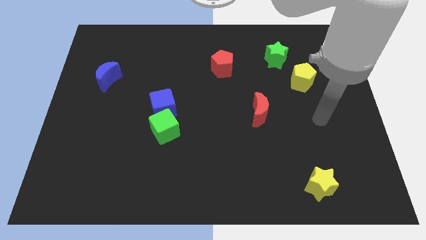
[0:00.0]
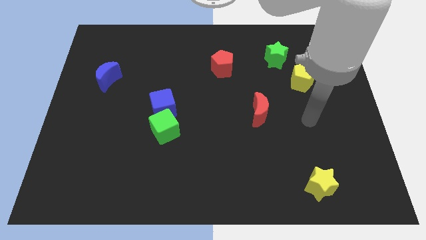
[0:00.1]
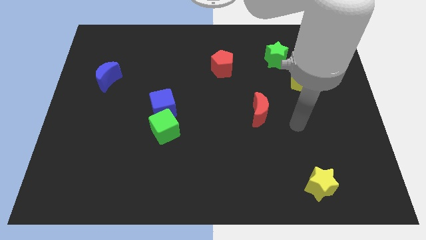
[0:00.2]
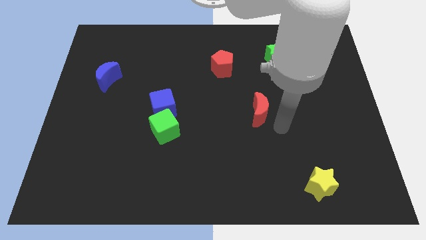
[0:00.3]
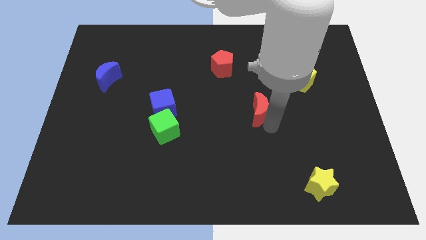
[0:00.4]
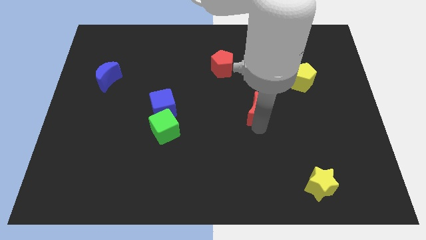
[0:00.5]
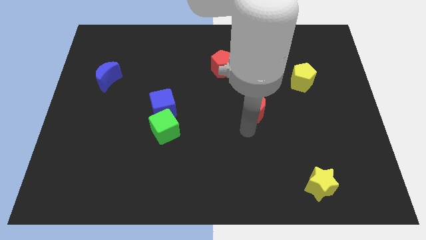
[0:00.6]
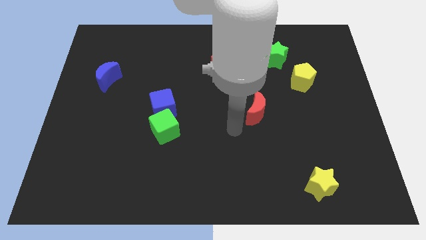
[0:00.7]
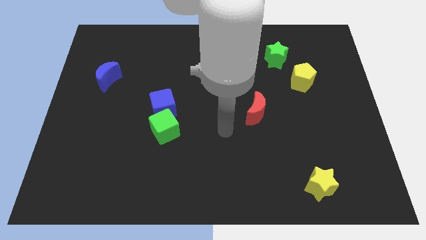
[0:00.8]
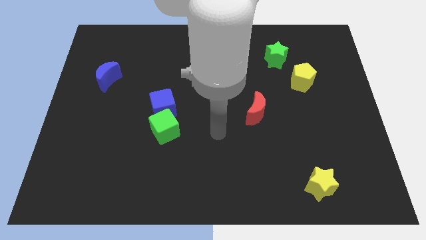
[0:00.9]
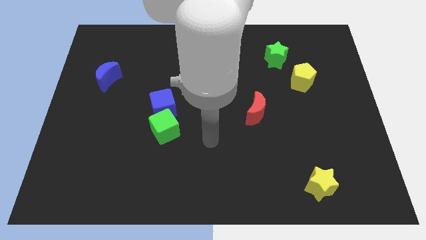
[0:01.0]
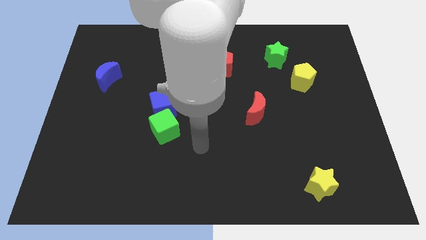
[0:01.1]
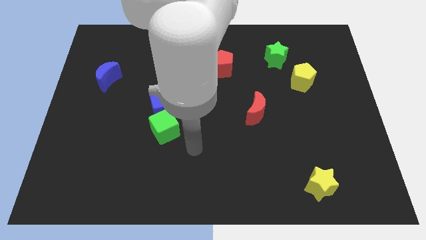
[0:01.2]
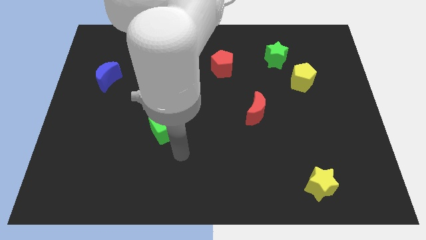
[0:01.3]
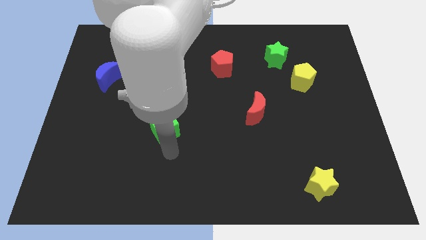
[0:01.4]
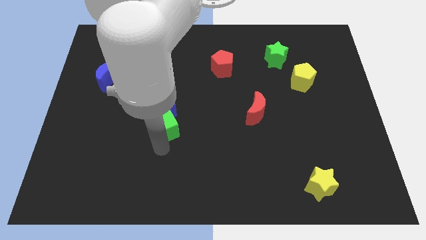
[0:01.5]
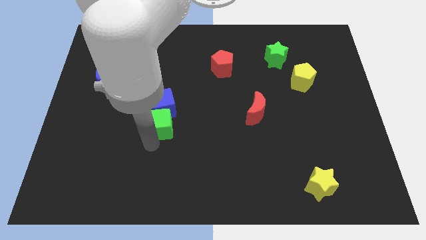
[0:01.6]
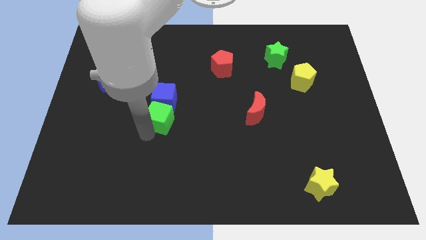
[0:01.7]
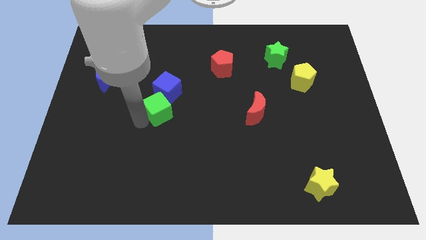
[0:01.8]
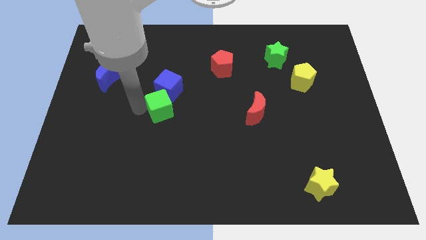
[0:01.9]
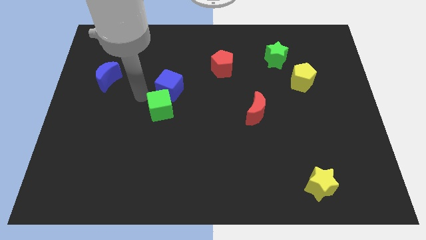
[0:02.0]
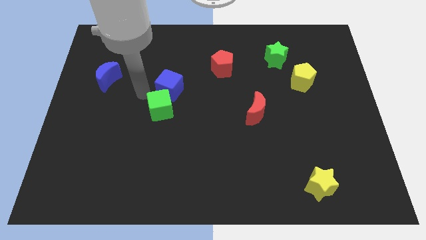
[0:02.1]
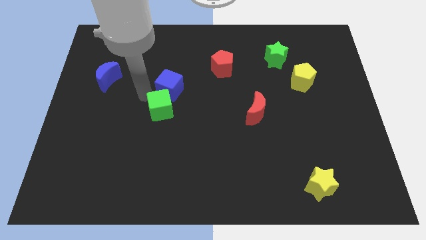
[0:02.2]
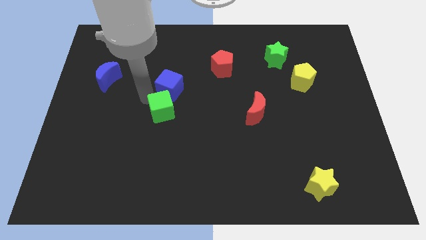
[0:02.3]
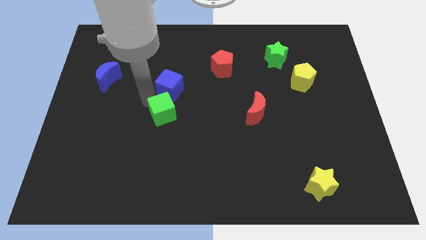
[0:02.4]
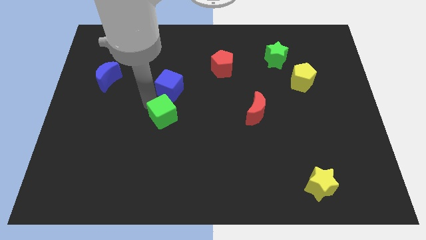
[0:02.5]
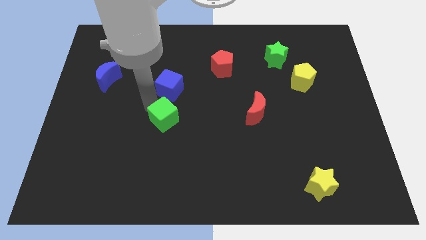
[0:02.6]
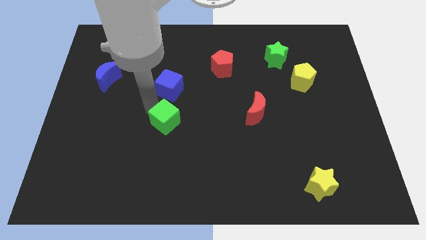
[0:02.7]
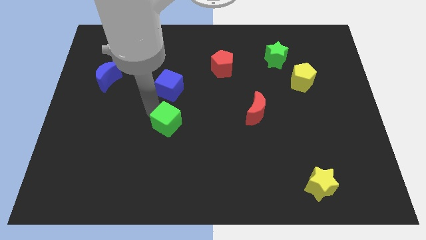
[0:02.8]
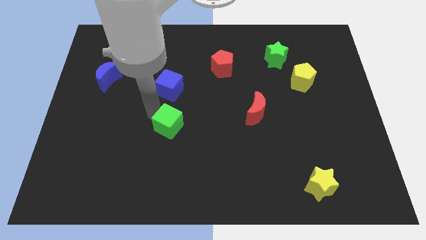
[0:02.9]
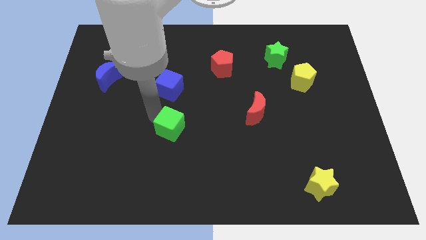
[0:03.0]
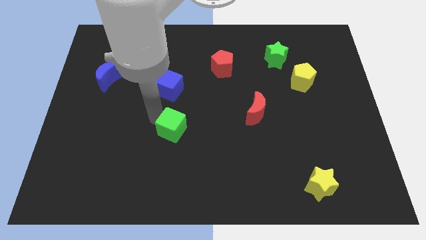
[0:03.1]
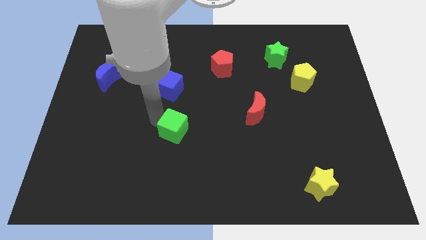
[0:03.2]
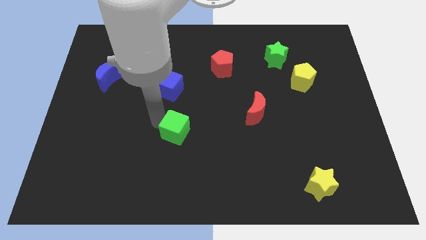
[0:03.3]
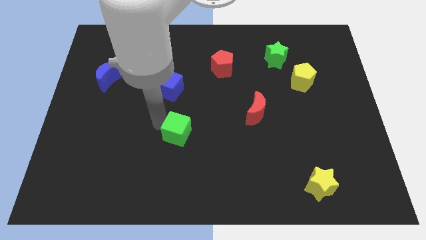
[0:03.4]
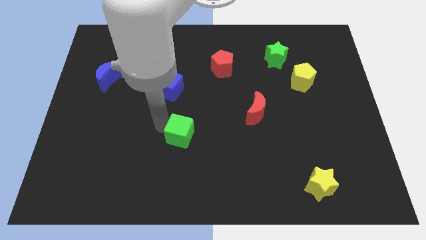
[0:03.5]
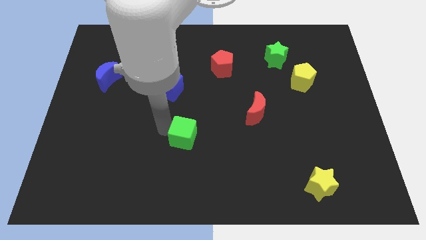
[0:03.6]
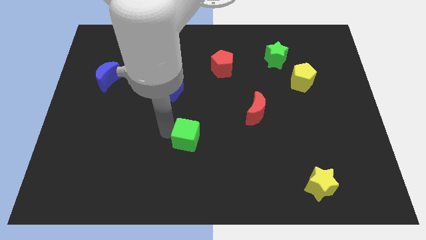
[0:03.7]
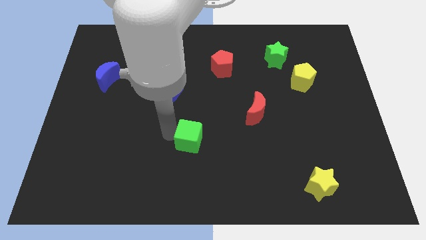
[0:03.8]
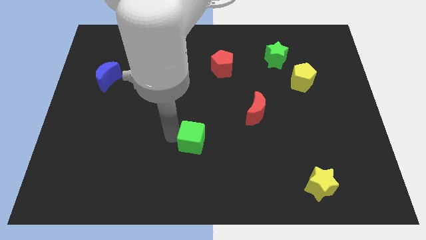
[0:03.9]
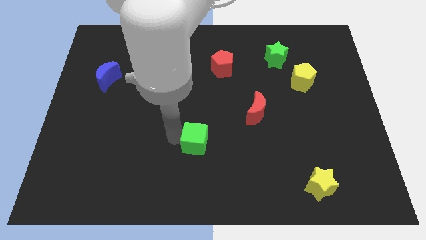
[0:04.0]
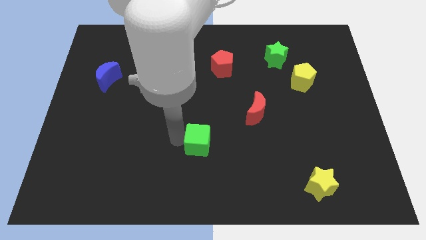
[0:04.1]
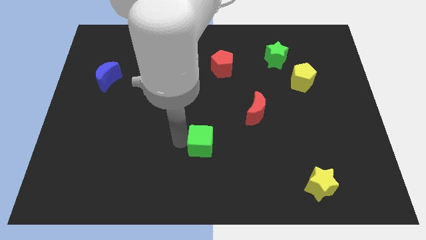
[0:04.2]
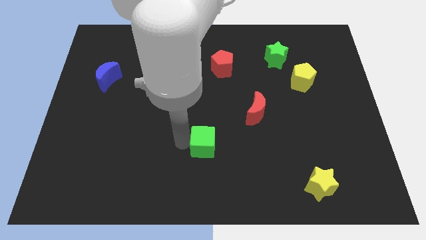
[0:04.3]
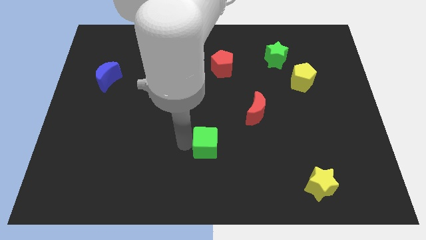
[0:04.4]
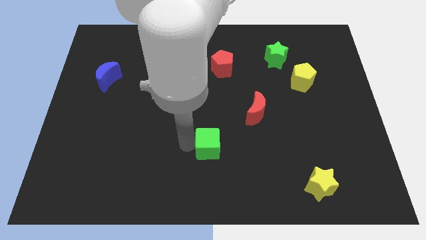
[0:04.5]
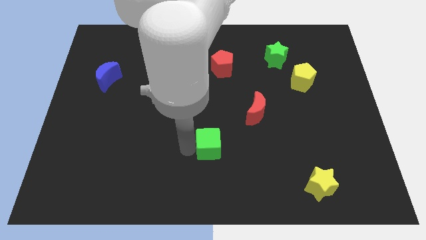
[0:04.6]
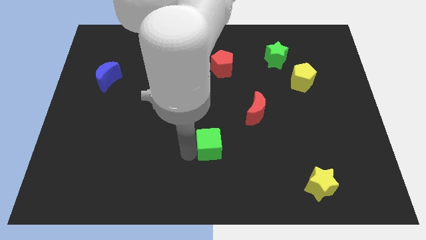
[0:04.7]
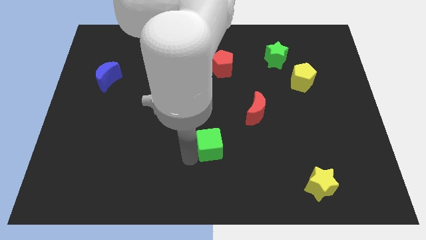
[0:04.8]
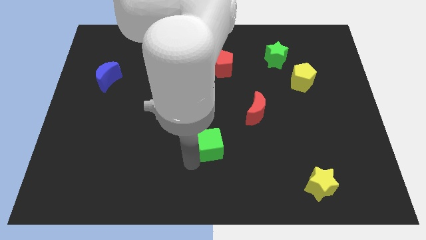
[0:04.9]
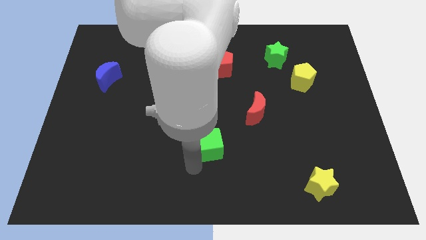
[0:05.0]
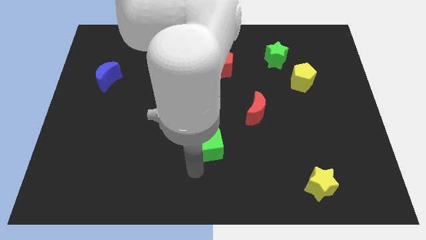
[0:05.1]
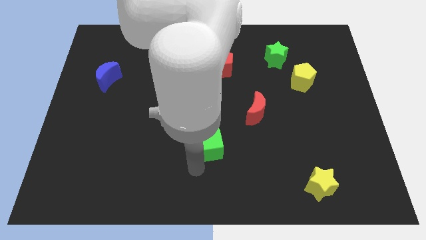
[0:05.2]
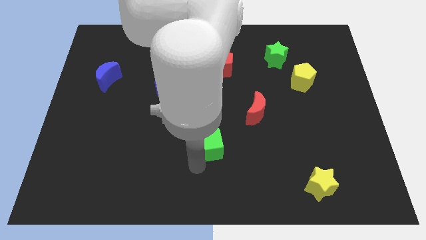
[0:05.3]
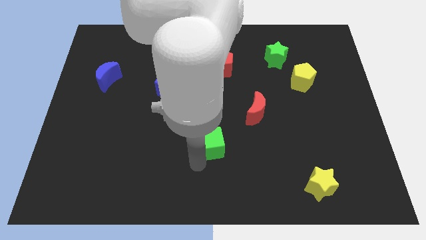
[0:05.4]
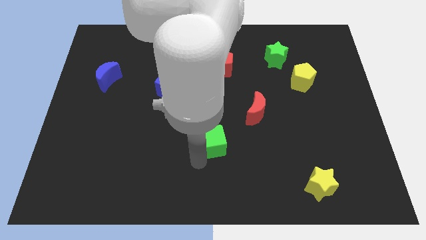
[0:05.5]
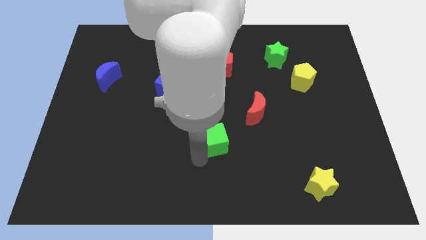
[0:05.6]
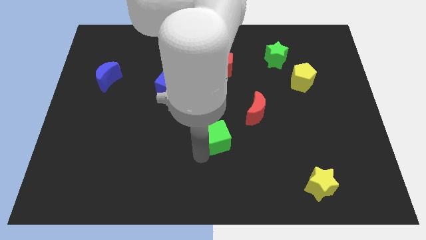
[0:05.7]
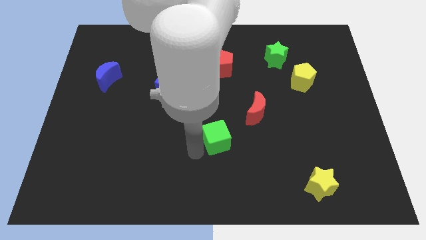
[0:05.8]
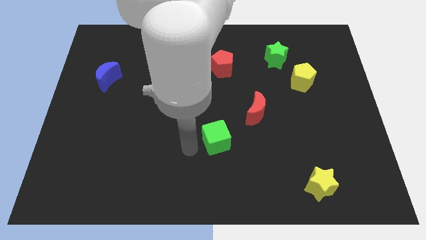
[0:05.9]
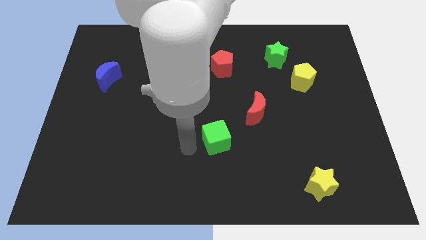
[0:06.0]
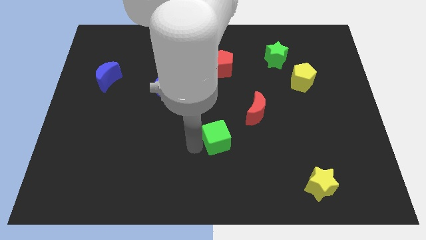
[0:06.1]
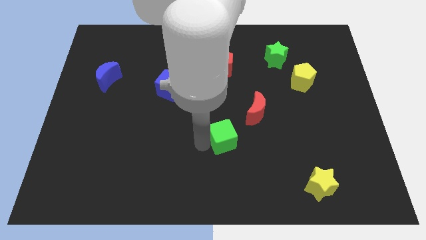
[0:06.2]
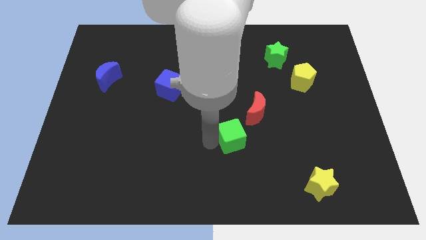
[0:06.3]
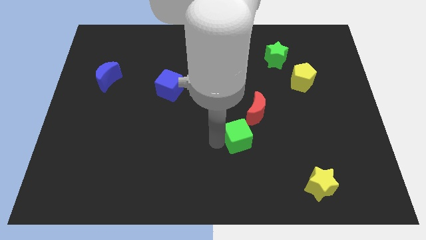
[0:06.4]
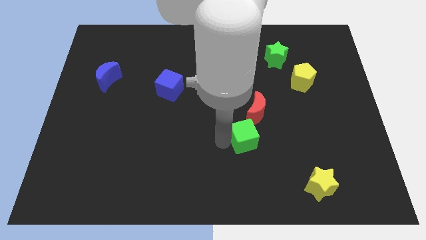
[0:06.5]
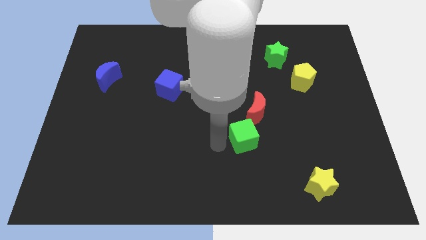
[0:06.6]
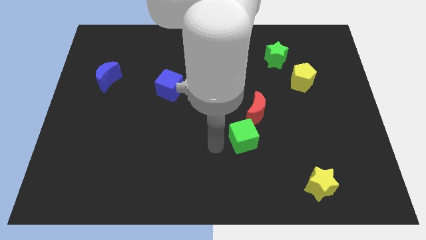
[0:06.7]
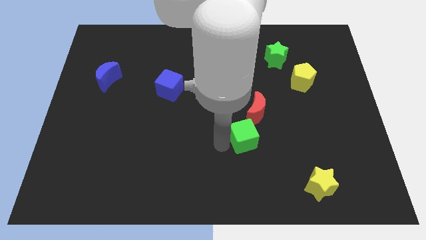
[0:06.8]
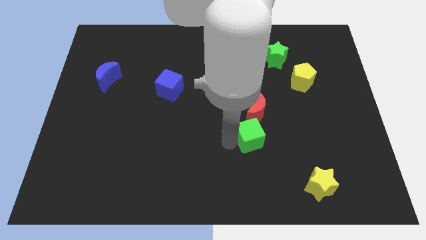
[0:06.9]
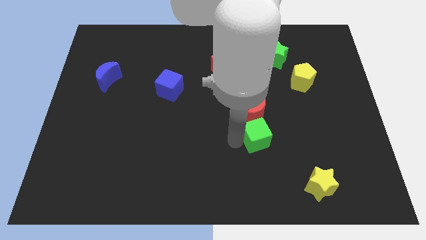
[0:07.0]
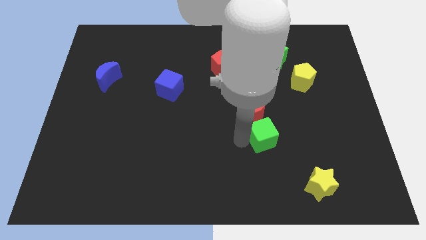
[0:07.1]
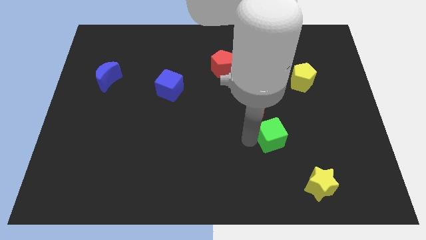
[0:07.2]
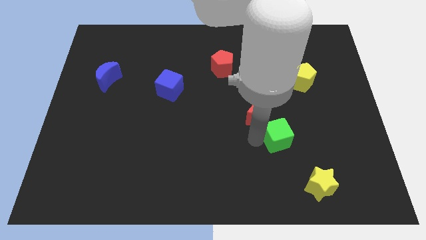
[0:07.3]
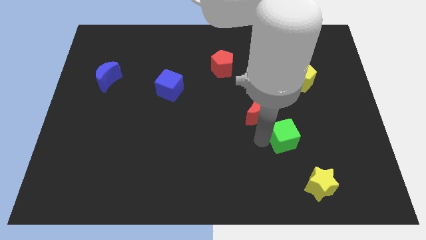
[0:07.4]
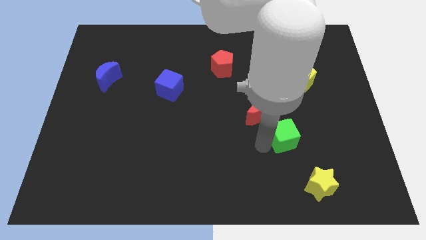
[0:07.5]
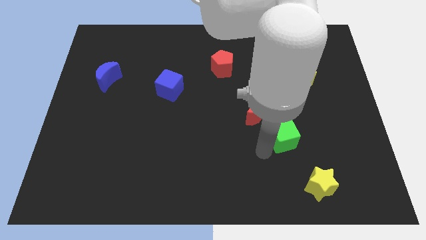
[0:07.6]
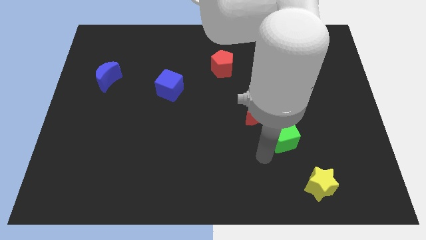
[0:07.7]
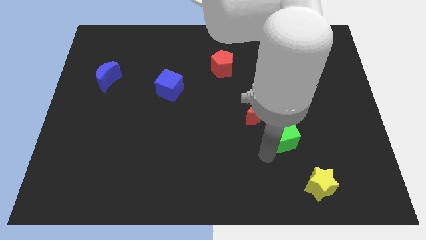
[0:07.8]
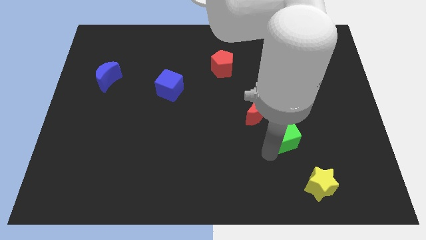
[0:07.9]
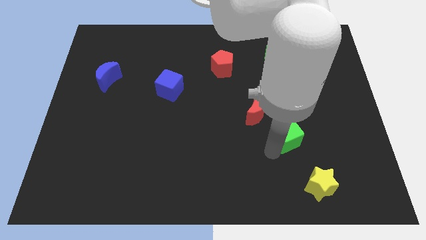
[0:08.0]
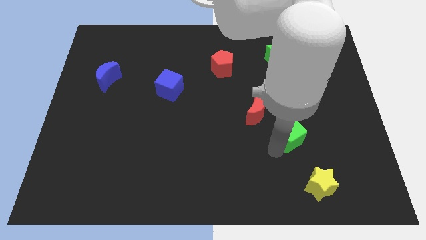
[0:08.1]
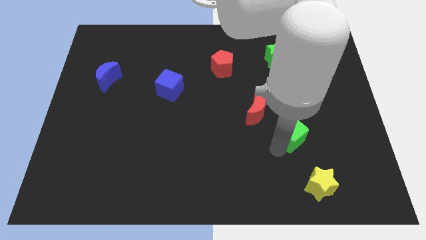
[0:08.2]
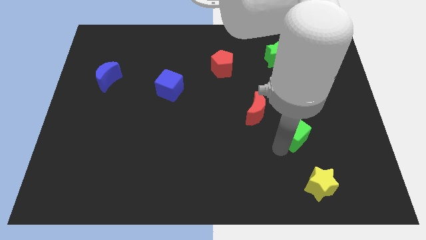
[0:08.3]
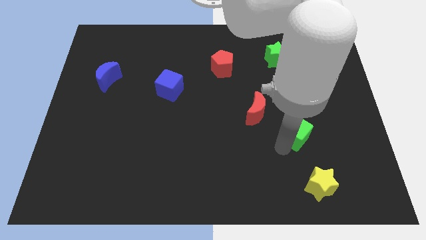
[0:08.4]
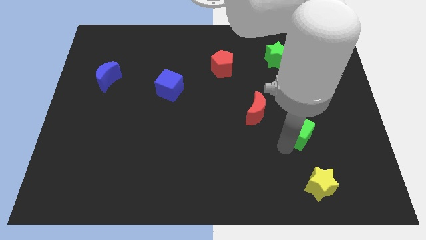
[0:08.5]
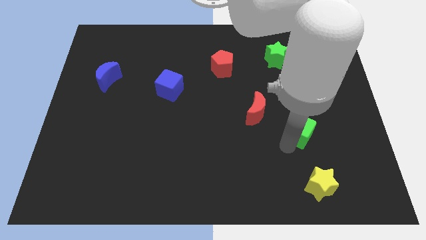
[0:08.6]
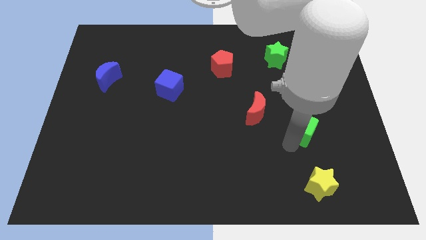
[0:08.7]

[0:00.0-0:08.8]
slide the green cube below the yellow pentagon
